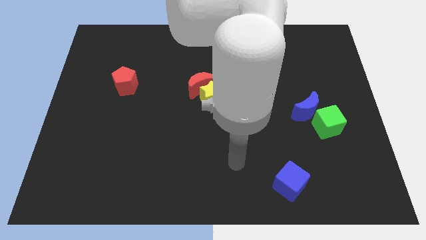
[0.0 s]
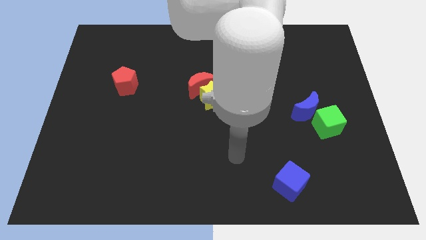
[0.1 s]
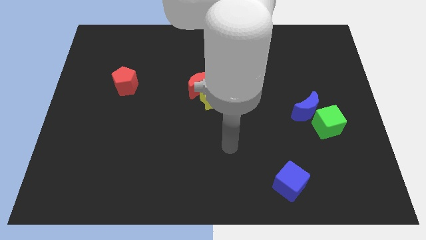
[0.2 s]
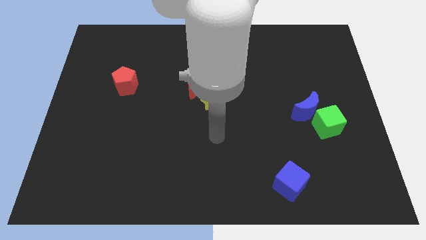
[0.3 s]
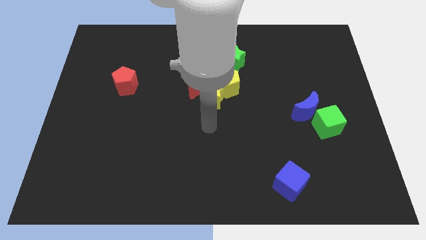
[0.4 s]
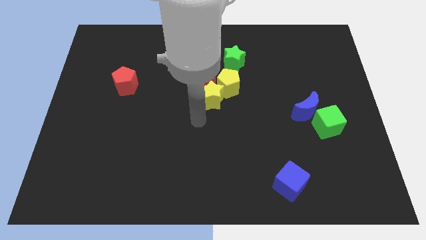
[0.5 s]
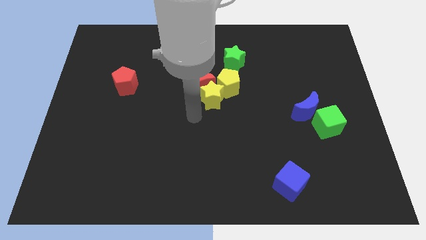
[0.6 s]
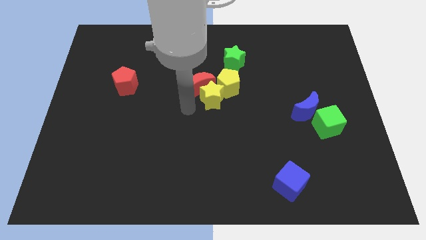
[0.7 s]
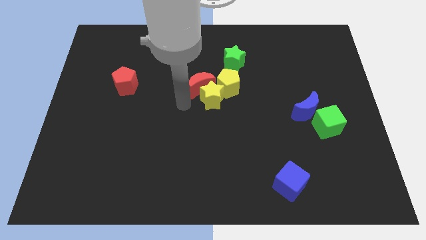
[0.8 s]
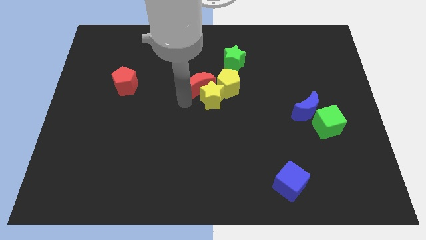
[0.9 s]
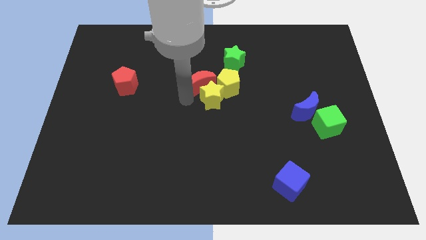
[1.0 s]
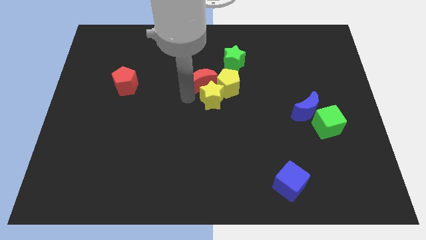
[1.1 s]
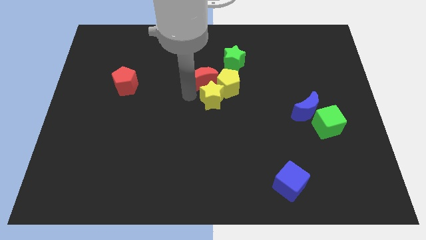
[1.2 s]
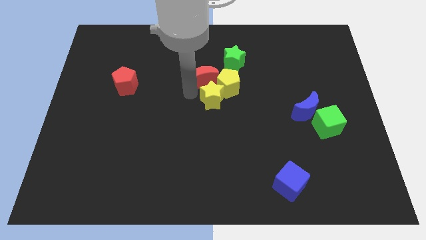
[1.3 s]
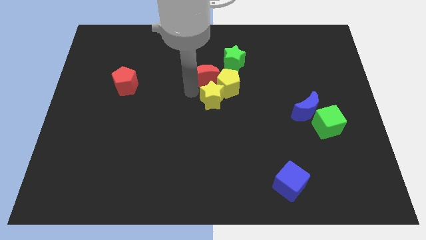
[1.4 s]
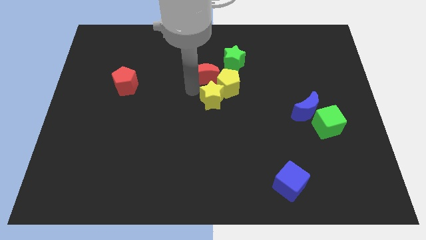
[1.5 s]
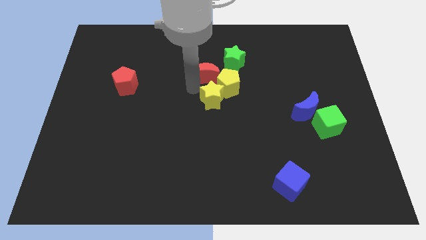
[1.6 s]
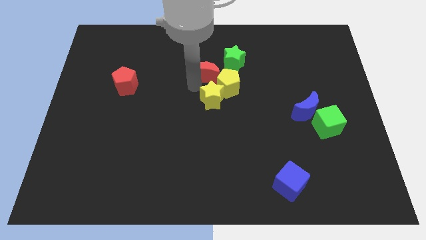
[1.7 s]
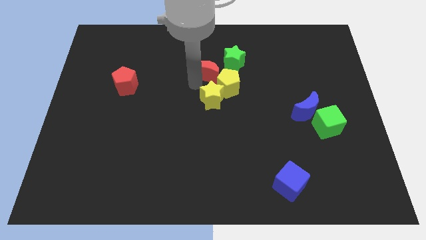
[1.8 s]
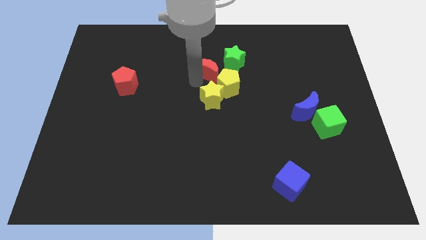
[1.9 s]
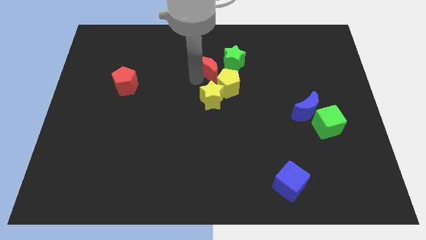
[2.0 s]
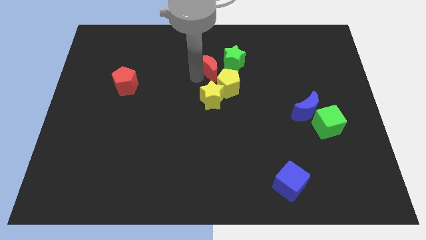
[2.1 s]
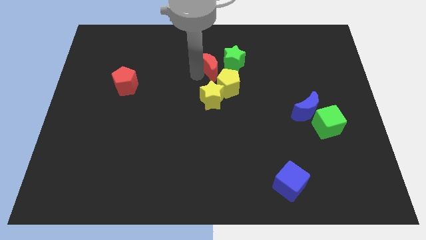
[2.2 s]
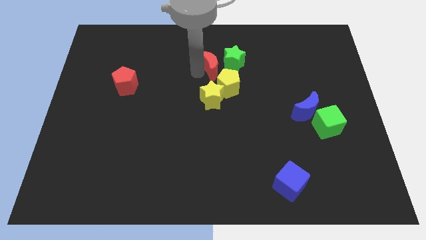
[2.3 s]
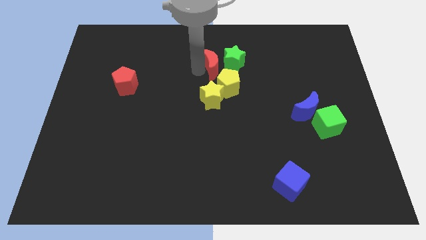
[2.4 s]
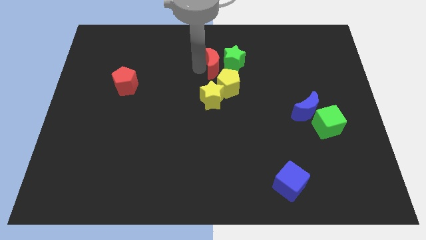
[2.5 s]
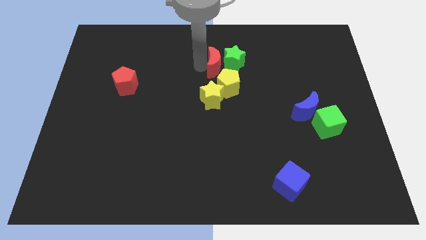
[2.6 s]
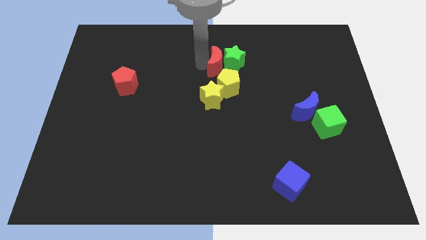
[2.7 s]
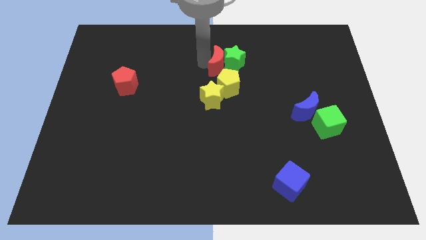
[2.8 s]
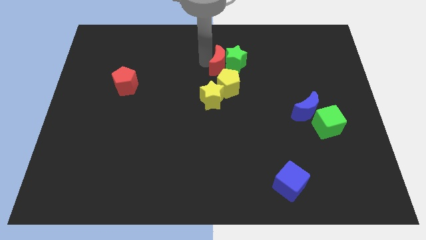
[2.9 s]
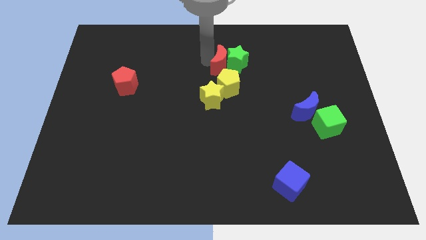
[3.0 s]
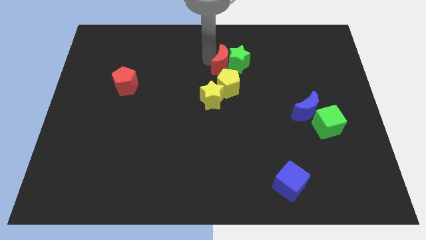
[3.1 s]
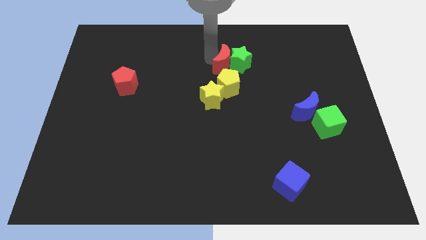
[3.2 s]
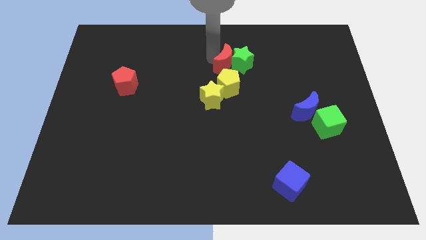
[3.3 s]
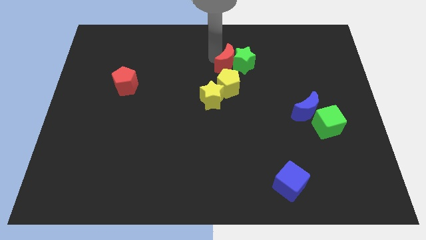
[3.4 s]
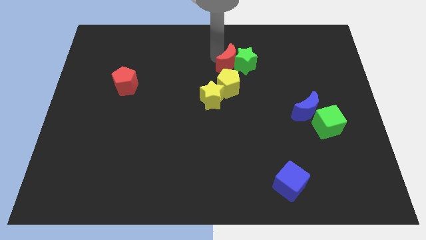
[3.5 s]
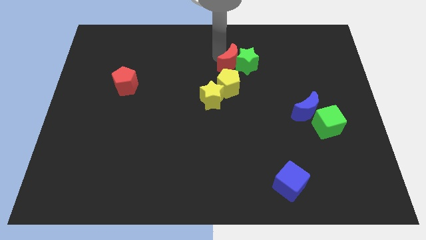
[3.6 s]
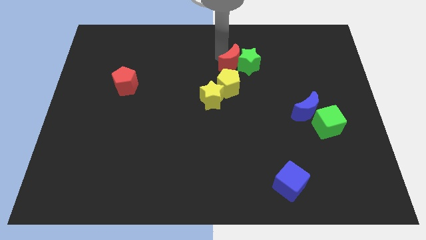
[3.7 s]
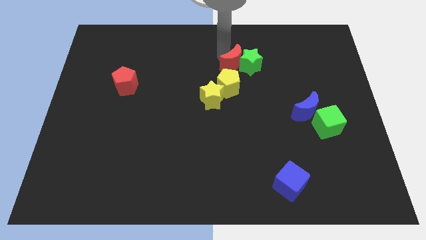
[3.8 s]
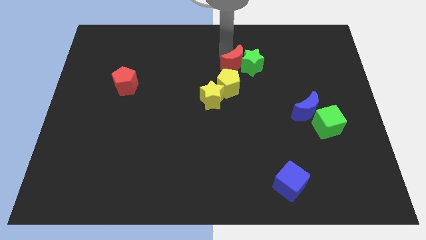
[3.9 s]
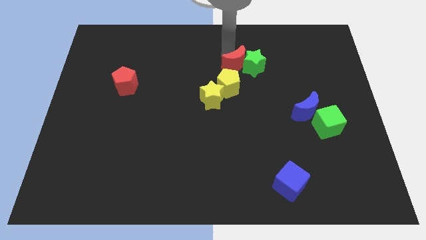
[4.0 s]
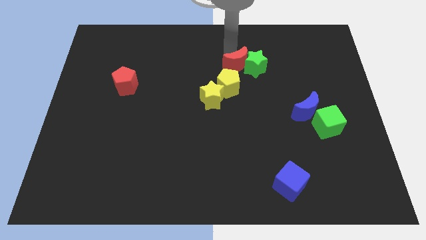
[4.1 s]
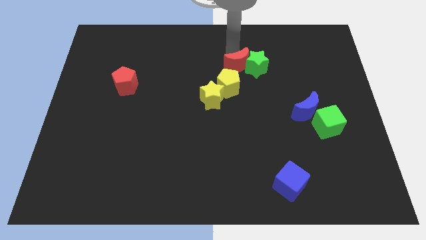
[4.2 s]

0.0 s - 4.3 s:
slightly slide the red moon to the right

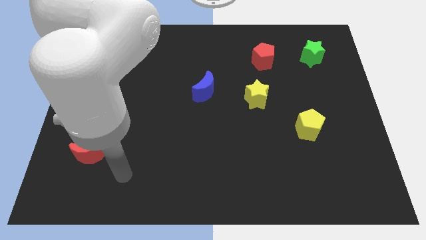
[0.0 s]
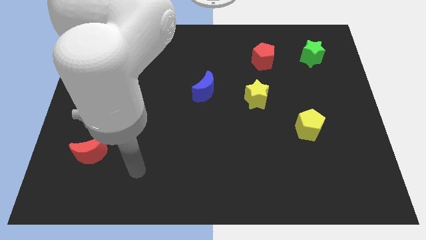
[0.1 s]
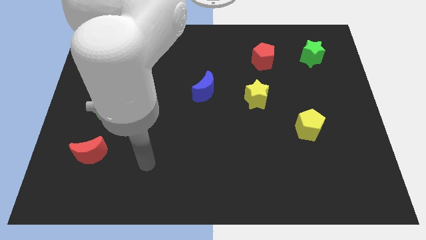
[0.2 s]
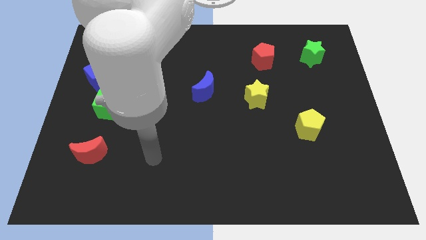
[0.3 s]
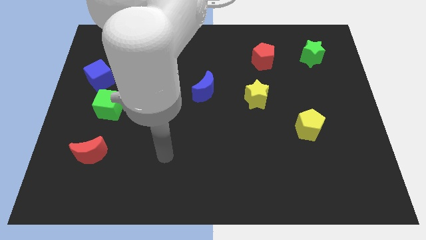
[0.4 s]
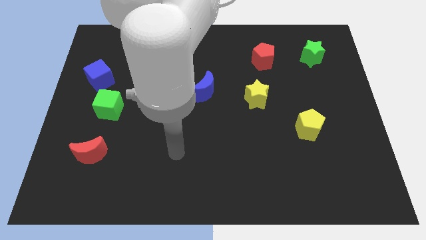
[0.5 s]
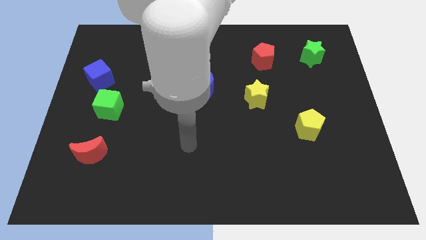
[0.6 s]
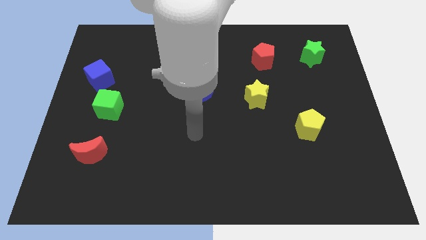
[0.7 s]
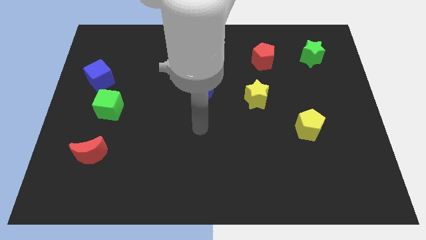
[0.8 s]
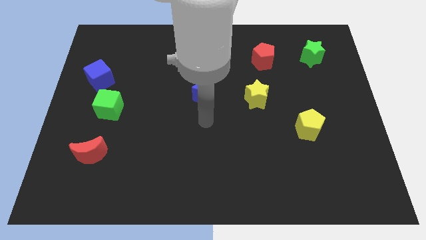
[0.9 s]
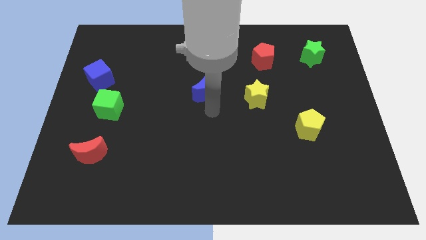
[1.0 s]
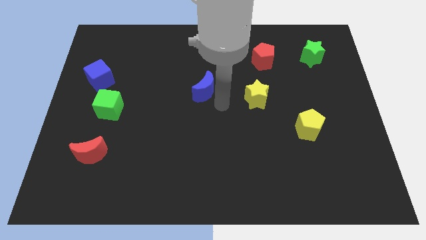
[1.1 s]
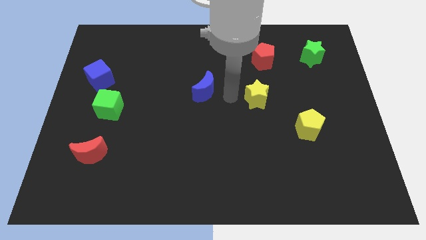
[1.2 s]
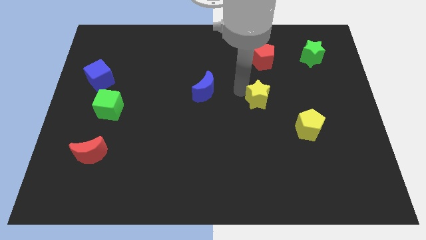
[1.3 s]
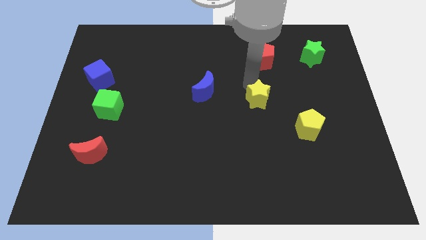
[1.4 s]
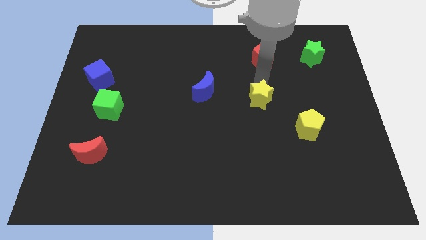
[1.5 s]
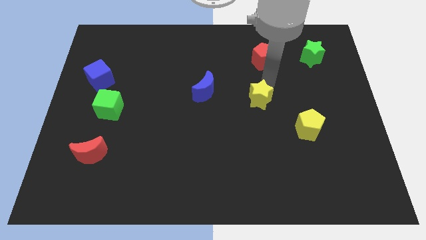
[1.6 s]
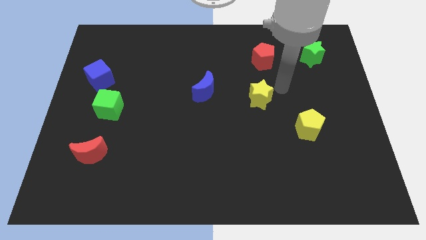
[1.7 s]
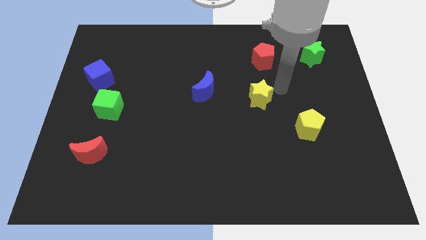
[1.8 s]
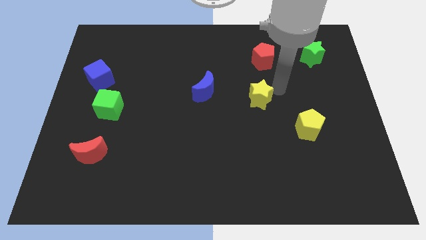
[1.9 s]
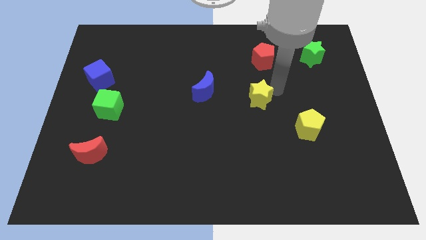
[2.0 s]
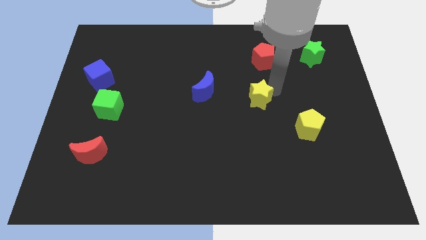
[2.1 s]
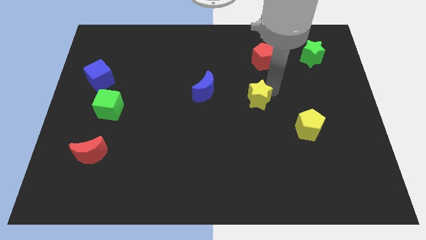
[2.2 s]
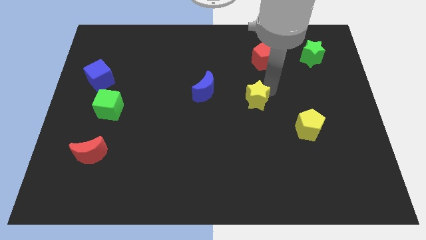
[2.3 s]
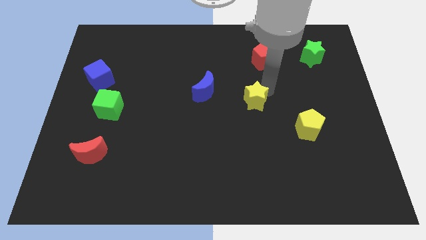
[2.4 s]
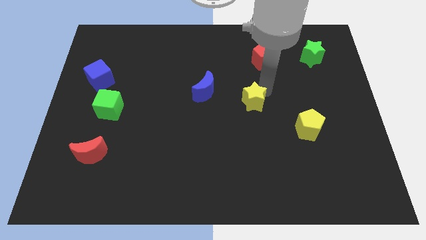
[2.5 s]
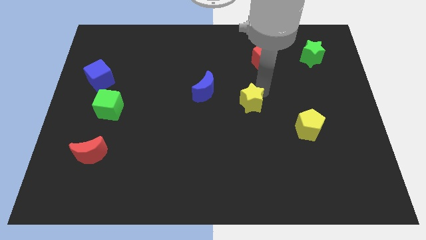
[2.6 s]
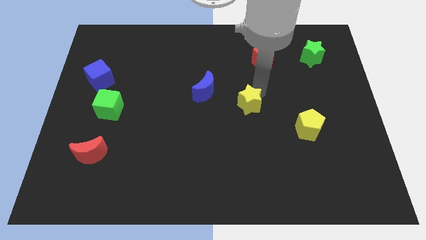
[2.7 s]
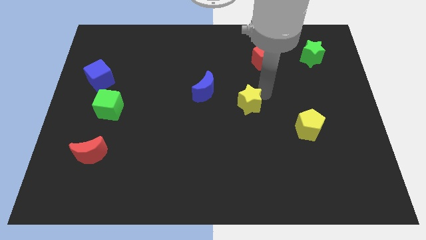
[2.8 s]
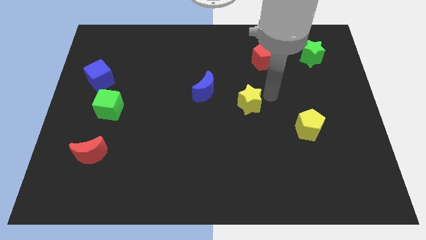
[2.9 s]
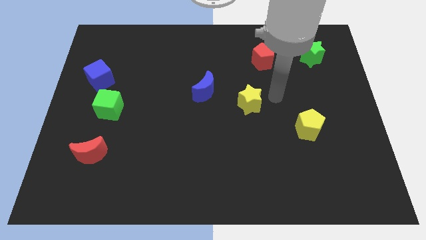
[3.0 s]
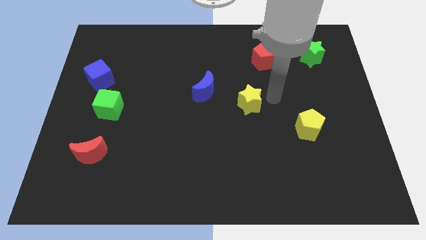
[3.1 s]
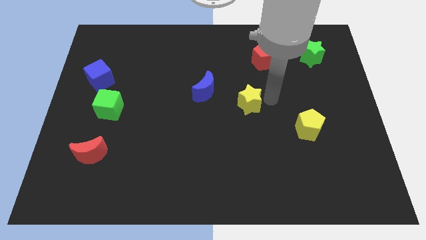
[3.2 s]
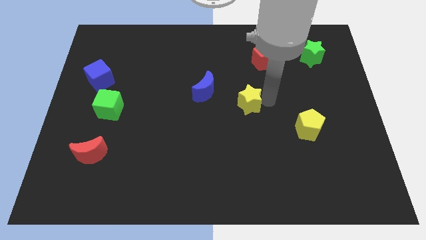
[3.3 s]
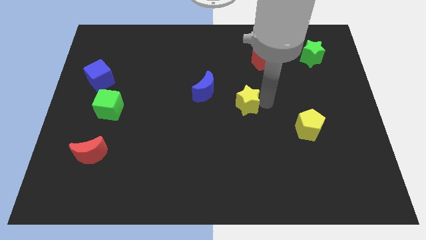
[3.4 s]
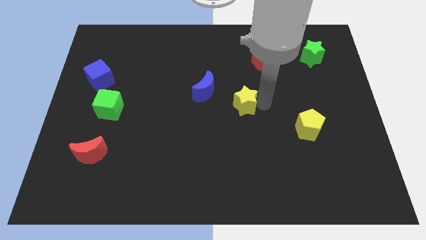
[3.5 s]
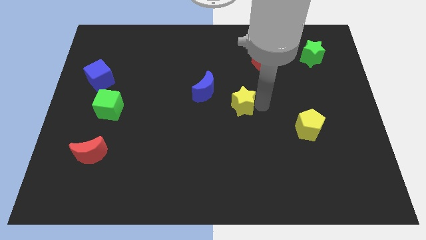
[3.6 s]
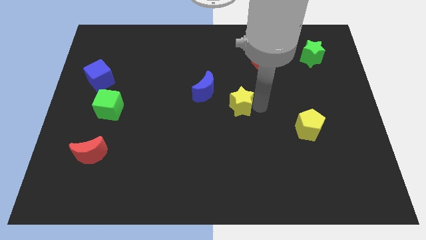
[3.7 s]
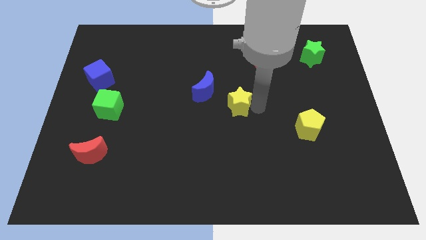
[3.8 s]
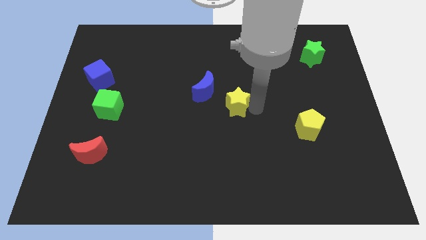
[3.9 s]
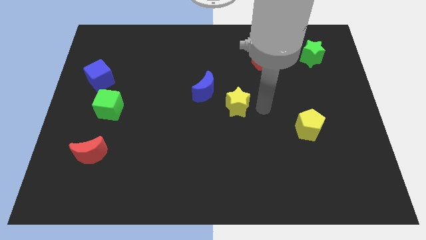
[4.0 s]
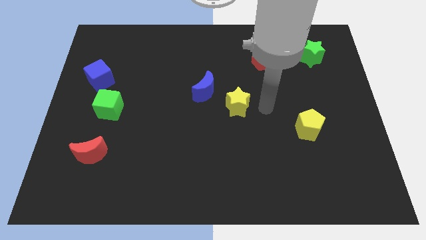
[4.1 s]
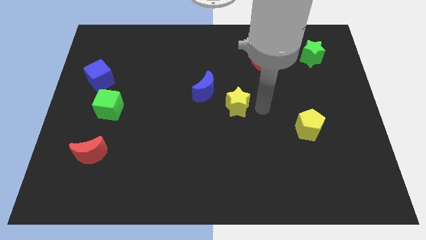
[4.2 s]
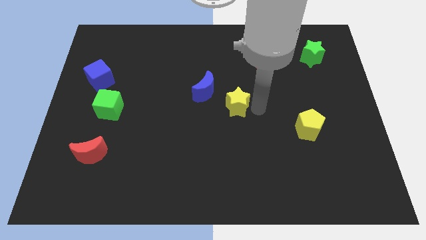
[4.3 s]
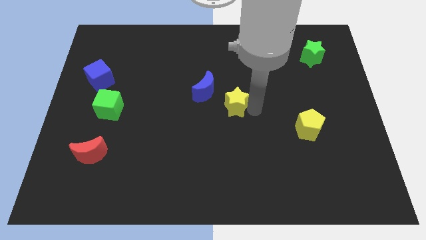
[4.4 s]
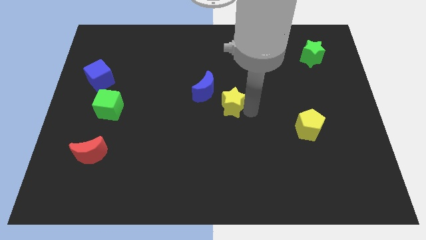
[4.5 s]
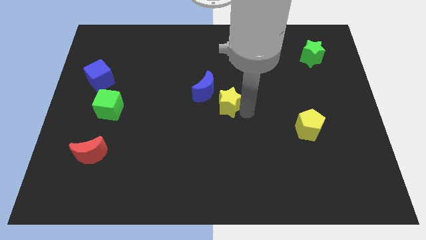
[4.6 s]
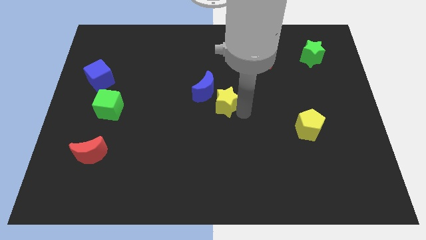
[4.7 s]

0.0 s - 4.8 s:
push the yellow star a little bit to the left
